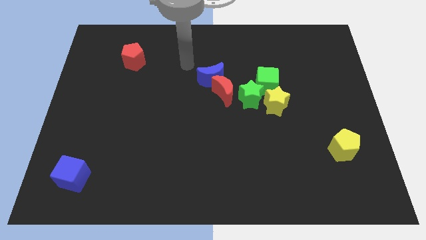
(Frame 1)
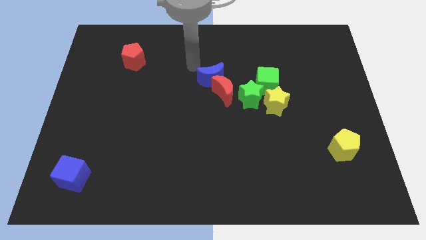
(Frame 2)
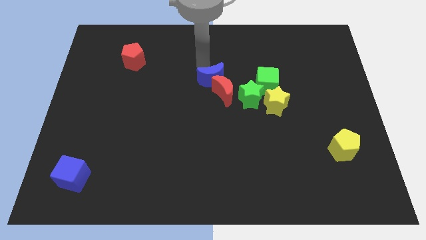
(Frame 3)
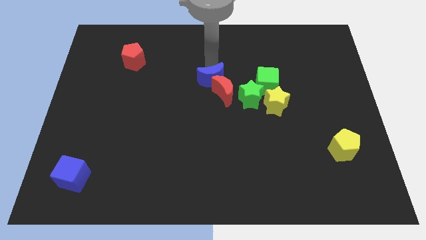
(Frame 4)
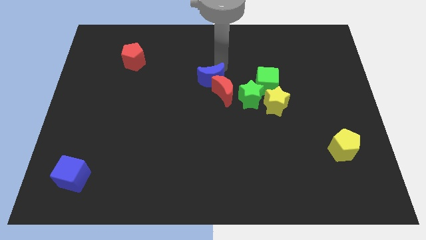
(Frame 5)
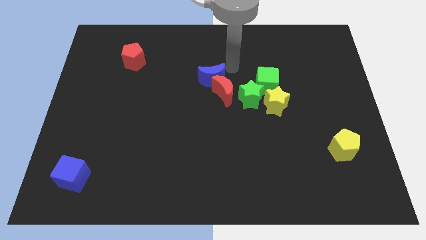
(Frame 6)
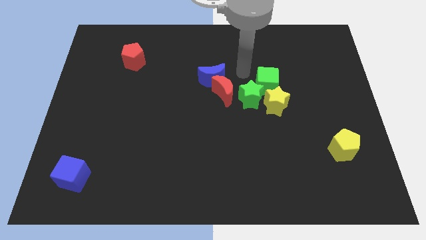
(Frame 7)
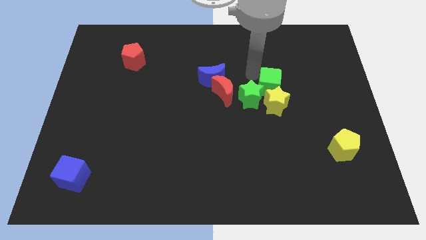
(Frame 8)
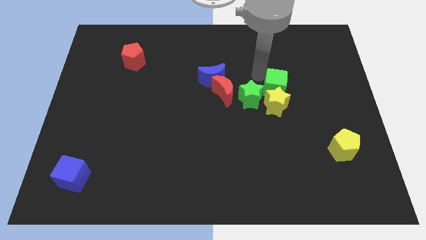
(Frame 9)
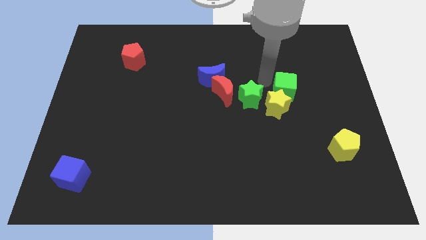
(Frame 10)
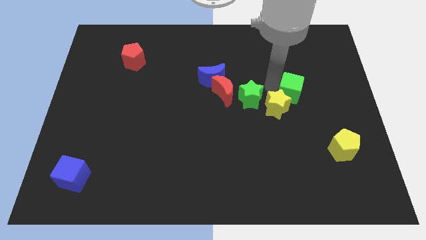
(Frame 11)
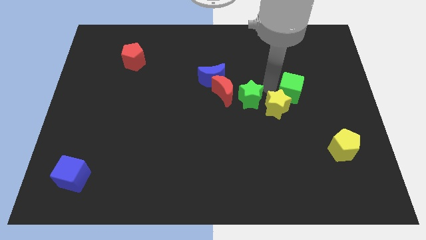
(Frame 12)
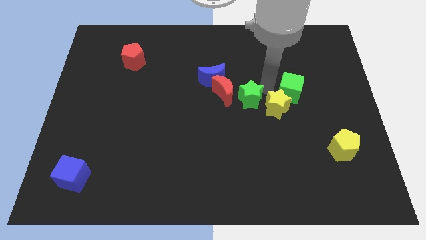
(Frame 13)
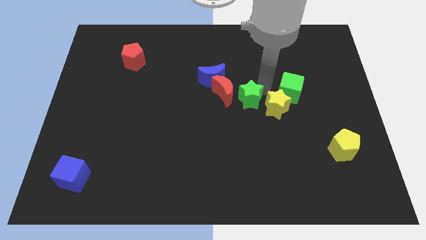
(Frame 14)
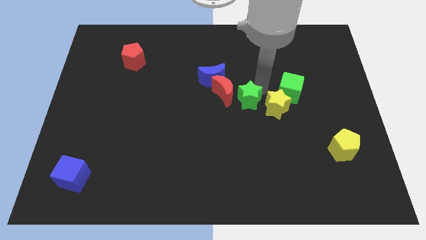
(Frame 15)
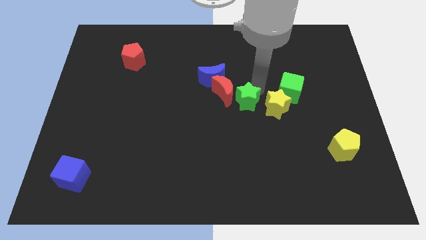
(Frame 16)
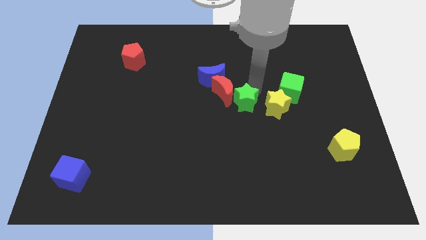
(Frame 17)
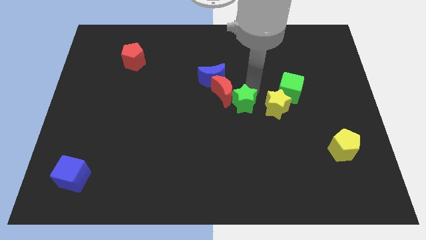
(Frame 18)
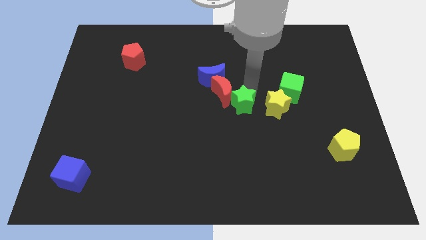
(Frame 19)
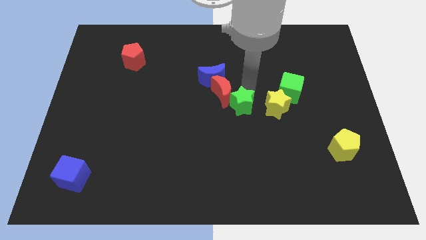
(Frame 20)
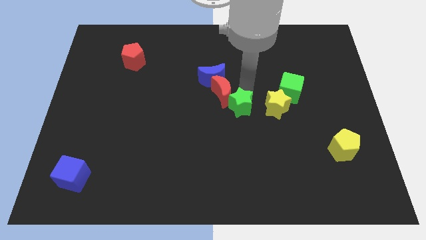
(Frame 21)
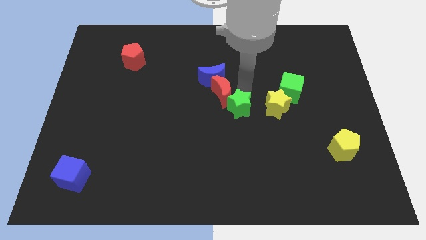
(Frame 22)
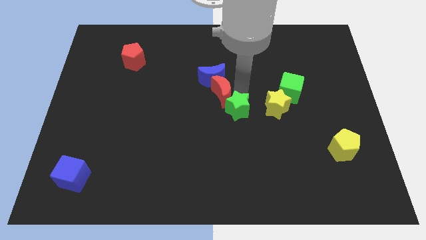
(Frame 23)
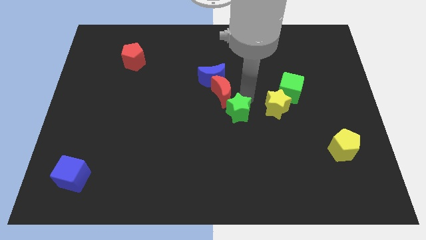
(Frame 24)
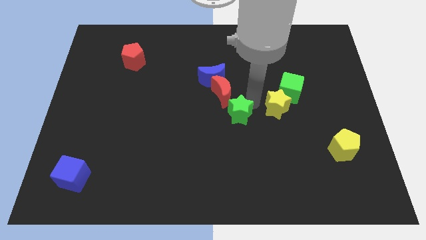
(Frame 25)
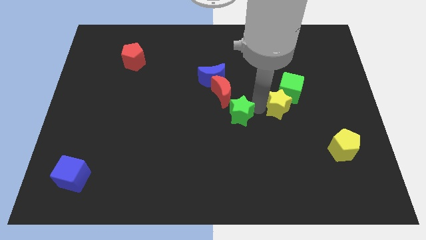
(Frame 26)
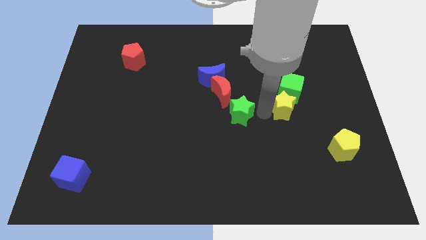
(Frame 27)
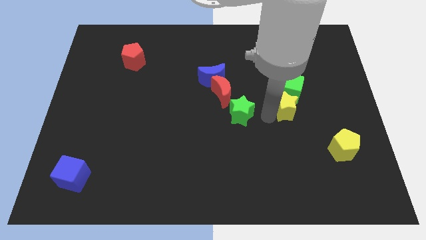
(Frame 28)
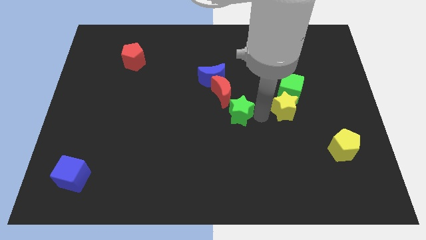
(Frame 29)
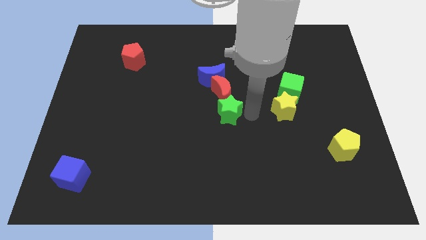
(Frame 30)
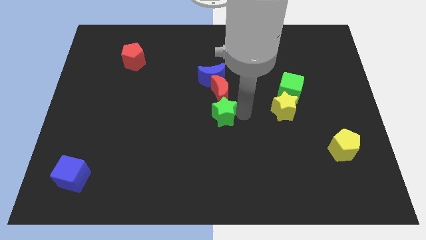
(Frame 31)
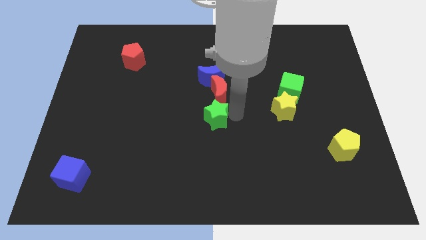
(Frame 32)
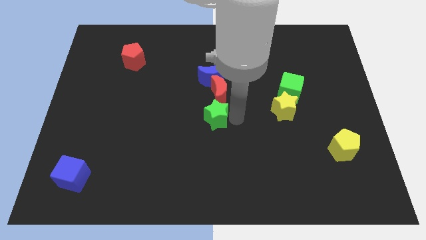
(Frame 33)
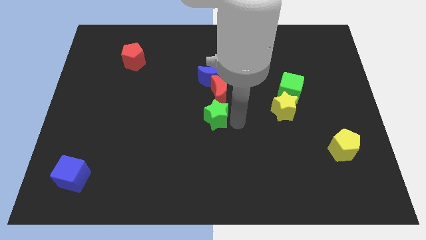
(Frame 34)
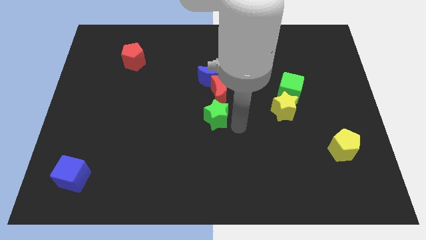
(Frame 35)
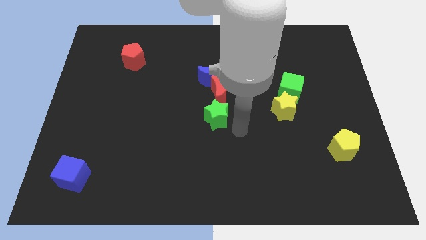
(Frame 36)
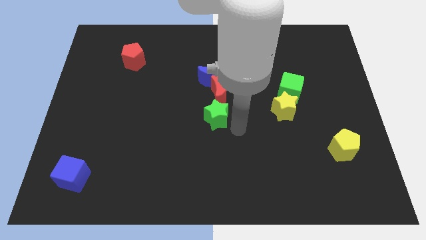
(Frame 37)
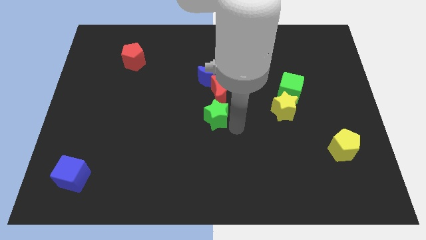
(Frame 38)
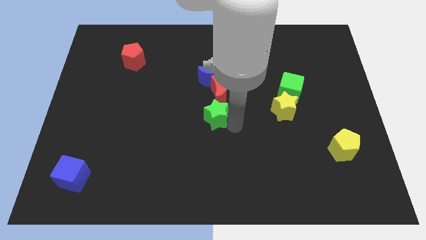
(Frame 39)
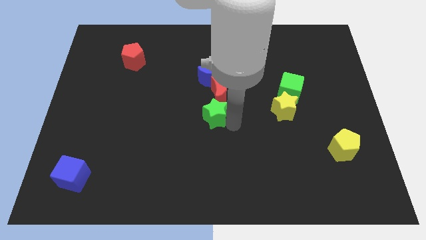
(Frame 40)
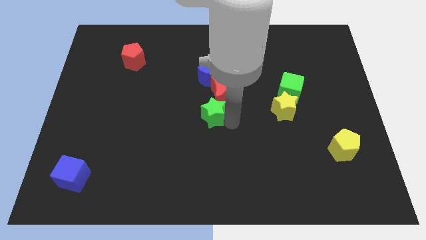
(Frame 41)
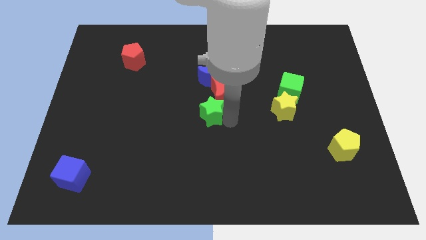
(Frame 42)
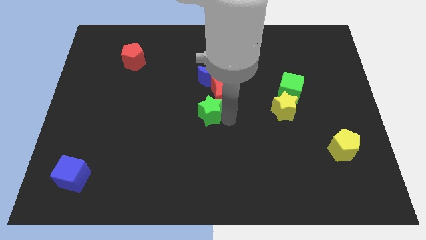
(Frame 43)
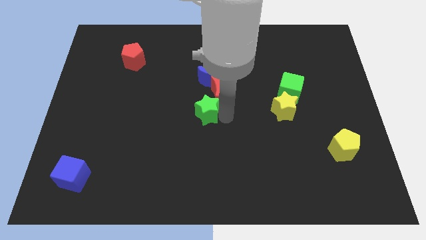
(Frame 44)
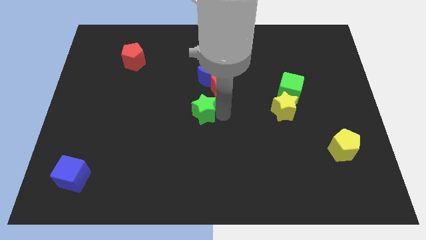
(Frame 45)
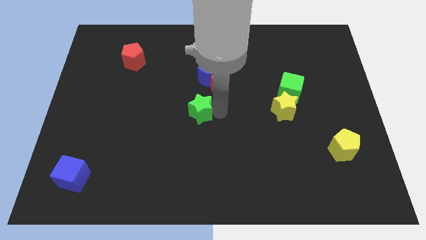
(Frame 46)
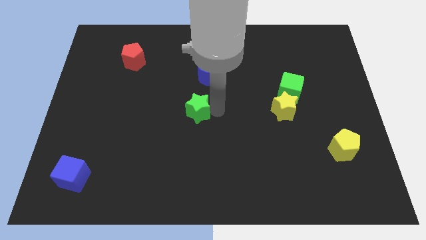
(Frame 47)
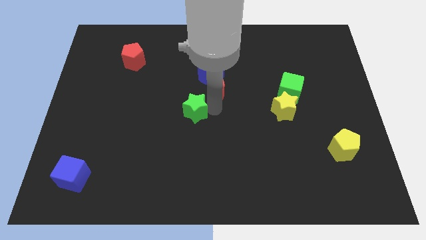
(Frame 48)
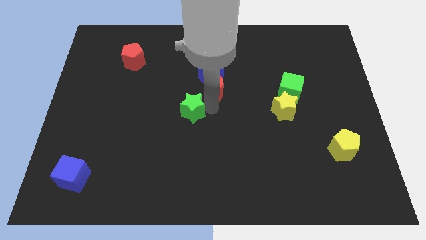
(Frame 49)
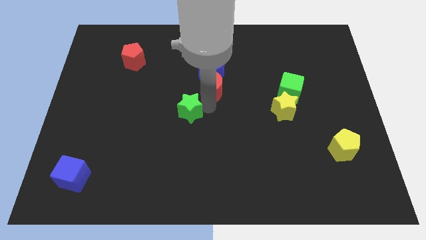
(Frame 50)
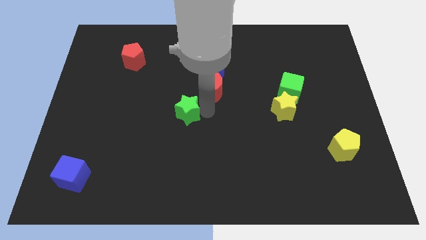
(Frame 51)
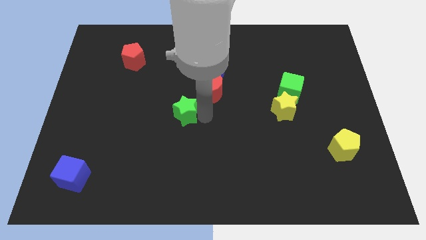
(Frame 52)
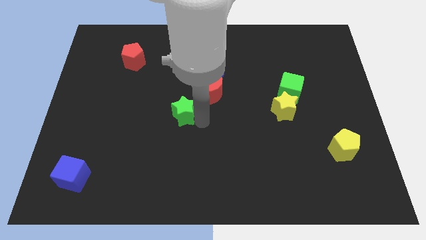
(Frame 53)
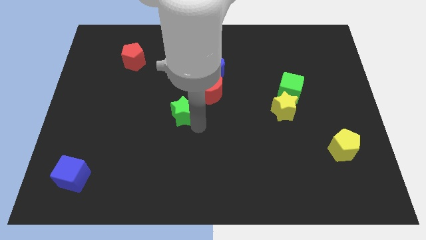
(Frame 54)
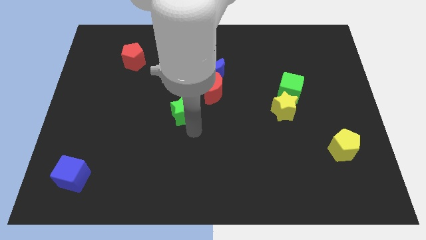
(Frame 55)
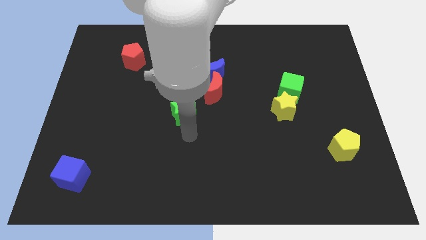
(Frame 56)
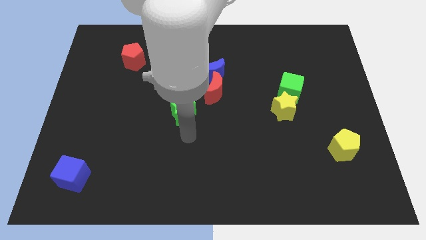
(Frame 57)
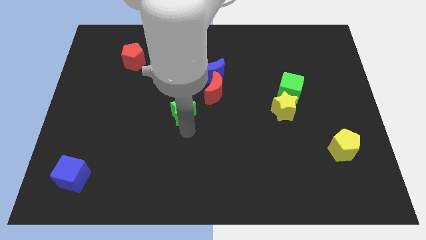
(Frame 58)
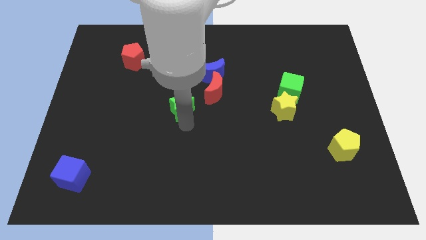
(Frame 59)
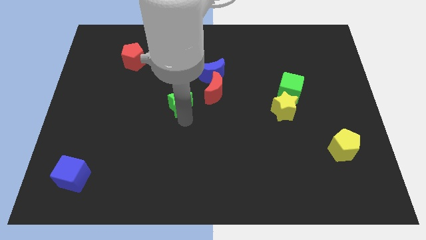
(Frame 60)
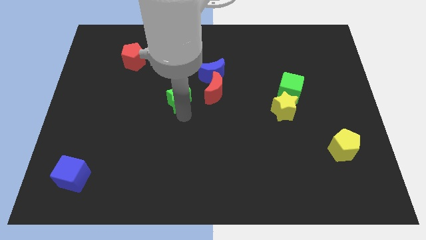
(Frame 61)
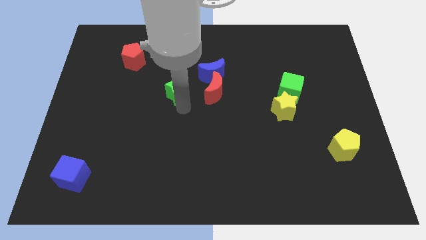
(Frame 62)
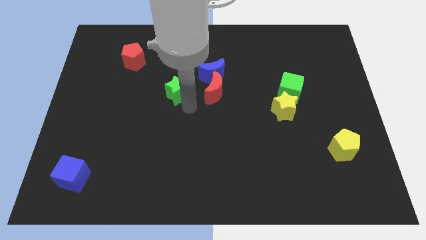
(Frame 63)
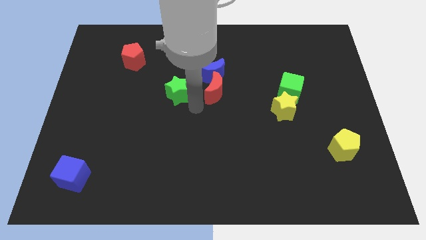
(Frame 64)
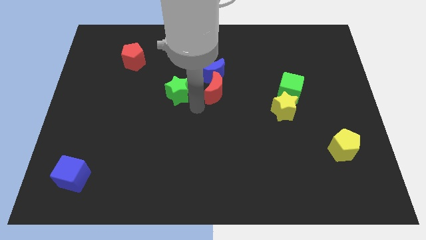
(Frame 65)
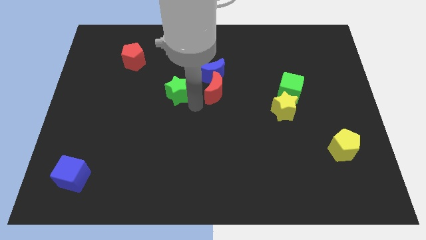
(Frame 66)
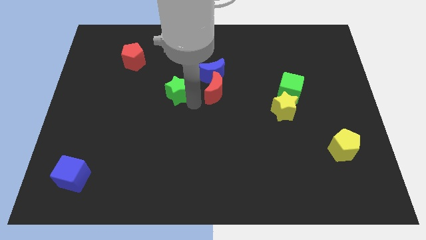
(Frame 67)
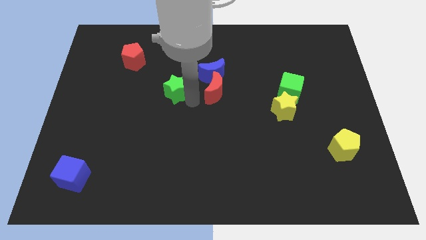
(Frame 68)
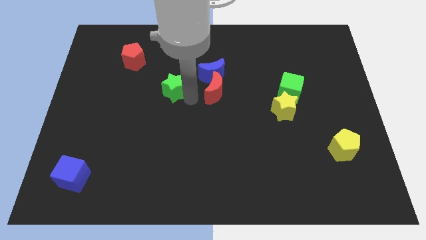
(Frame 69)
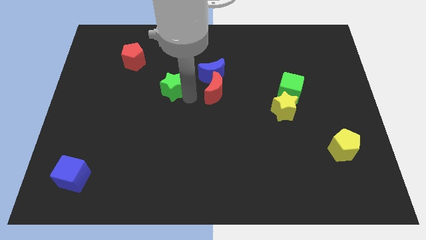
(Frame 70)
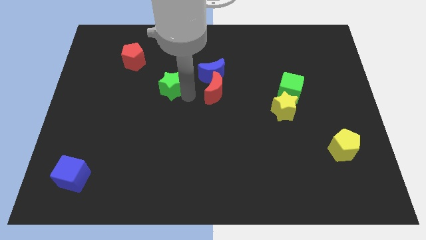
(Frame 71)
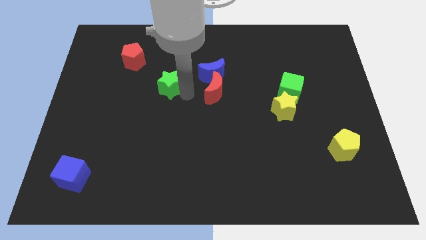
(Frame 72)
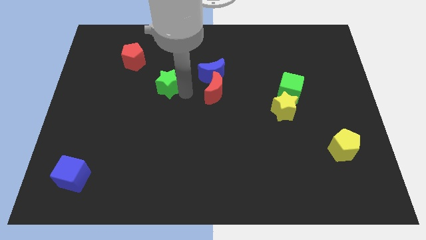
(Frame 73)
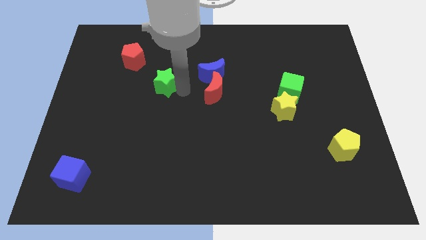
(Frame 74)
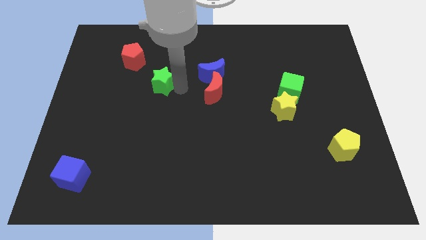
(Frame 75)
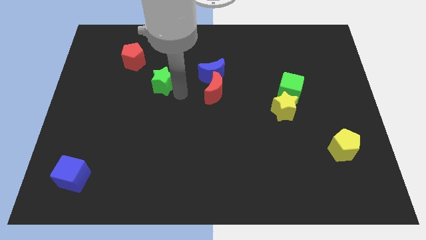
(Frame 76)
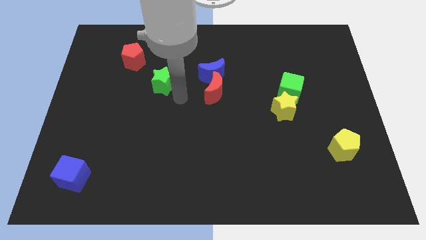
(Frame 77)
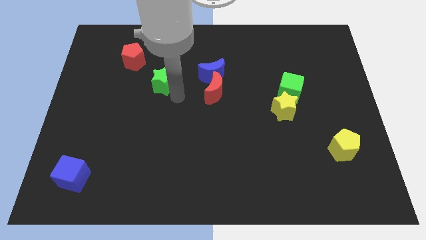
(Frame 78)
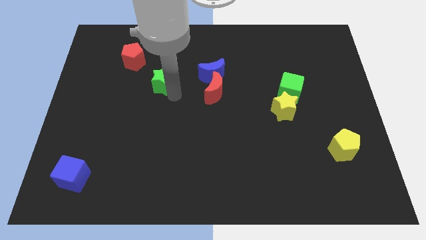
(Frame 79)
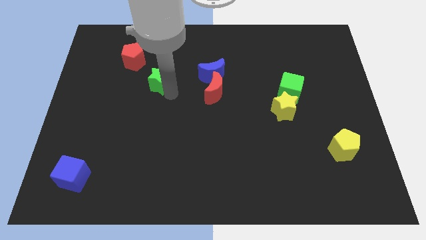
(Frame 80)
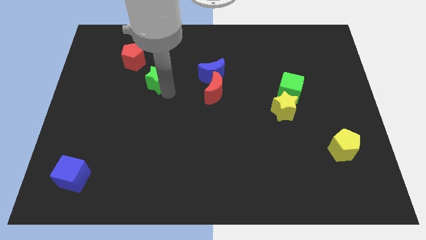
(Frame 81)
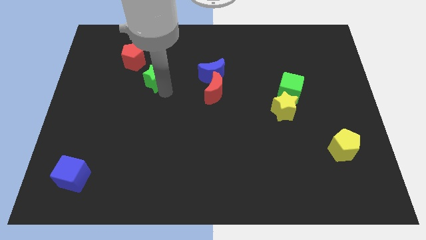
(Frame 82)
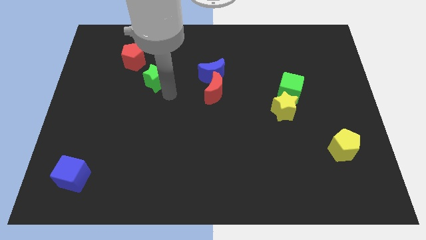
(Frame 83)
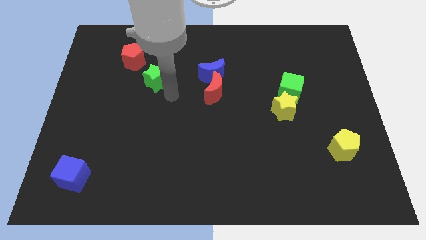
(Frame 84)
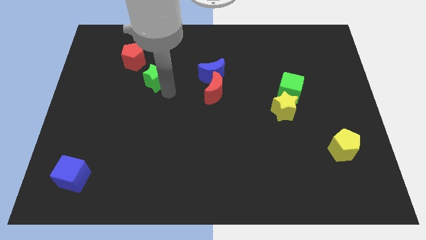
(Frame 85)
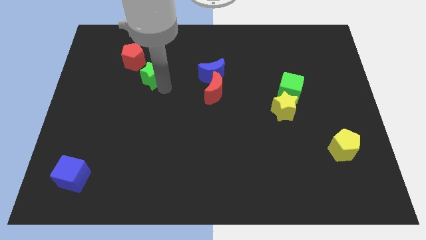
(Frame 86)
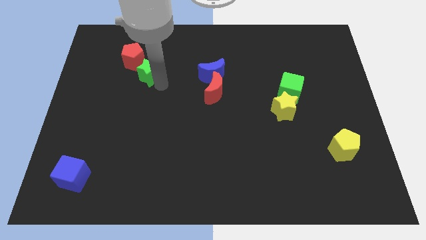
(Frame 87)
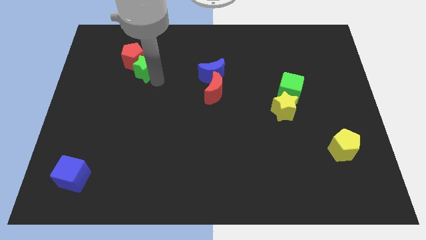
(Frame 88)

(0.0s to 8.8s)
push the green star next to the red pentagon
